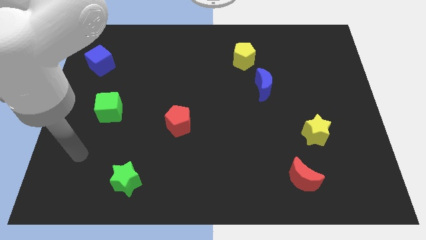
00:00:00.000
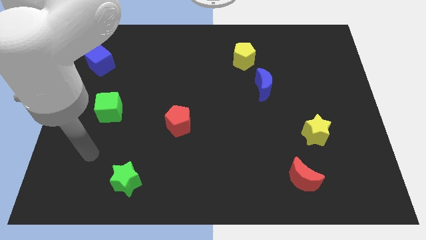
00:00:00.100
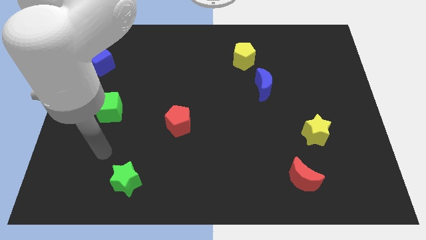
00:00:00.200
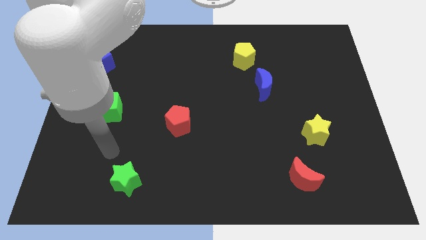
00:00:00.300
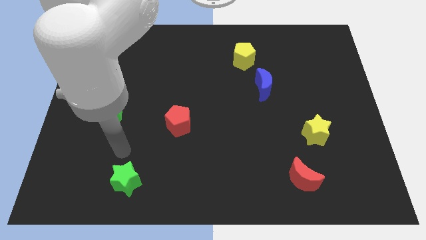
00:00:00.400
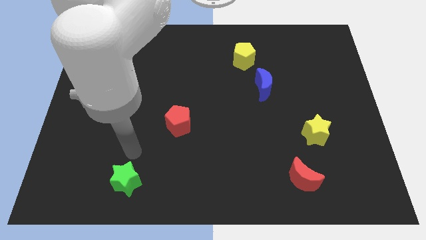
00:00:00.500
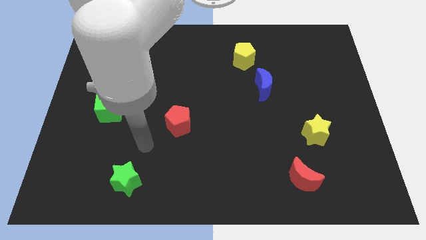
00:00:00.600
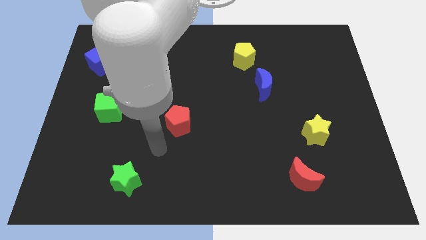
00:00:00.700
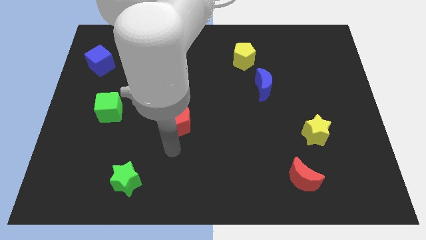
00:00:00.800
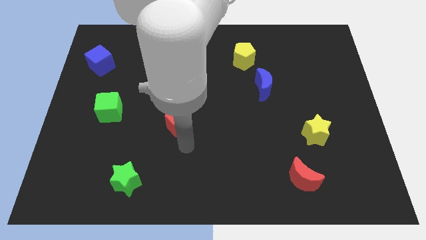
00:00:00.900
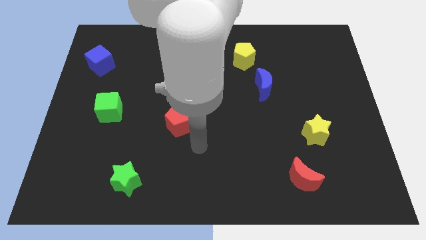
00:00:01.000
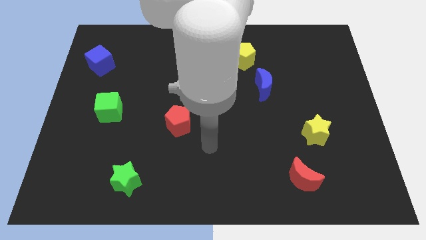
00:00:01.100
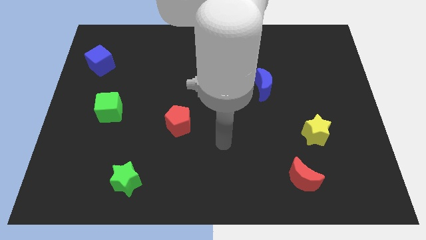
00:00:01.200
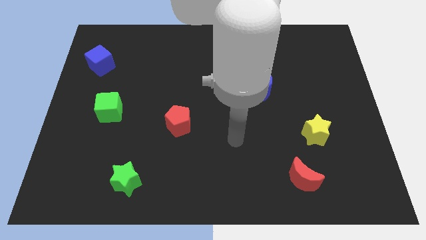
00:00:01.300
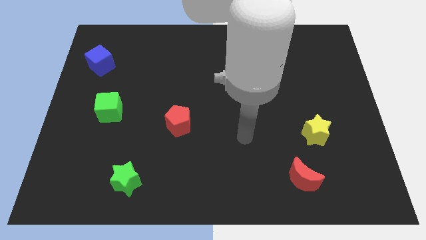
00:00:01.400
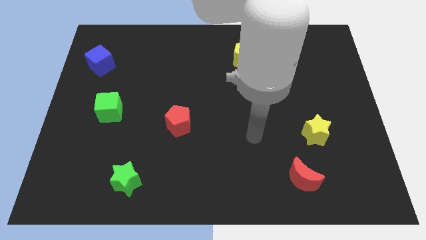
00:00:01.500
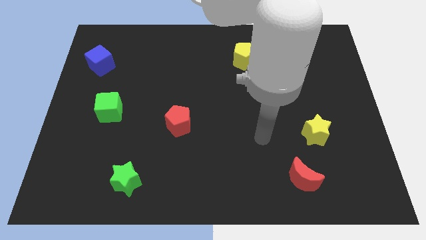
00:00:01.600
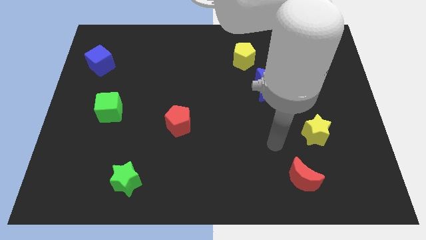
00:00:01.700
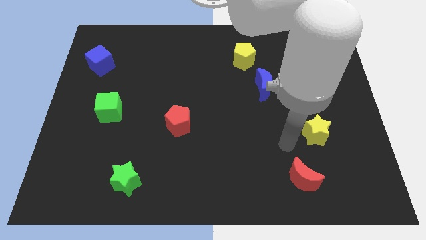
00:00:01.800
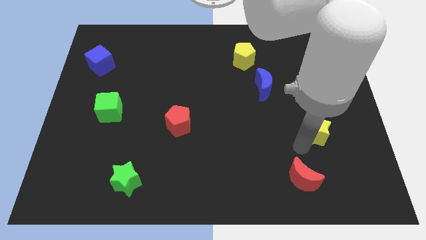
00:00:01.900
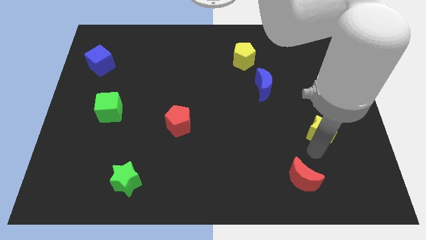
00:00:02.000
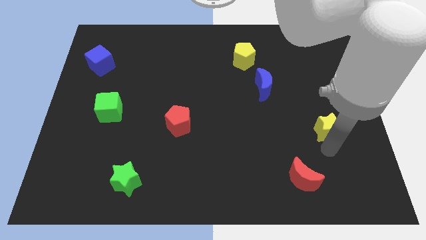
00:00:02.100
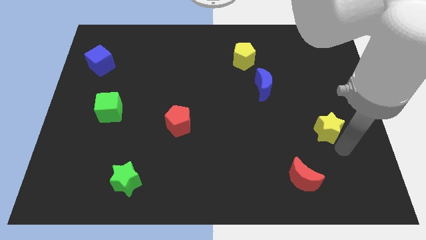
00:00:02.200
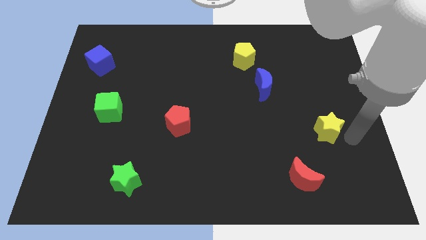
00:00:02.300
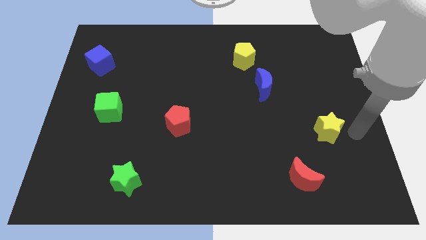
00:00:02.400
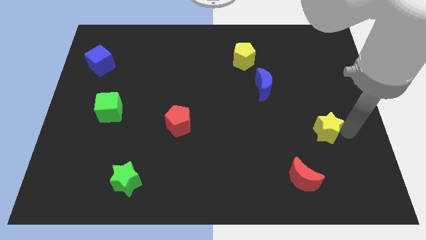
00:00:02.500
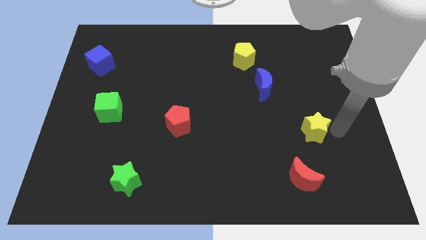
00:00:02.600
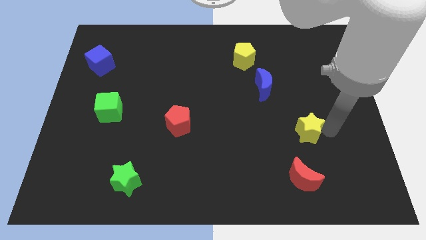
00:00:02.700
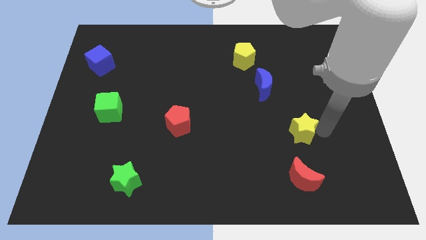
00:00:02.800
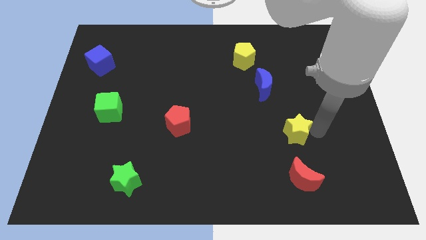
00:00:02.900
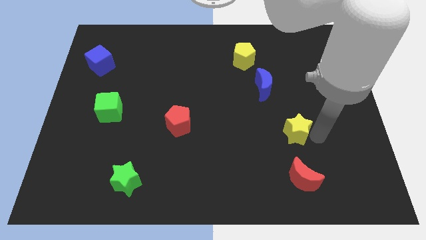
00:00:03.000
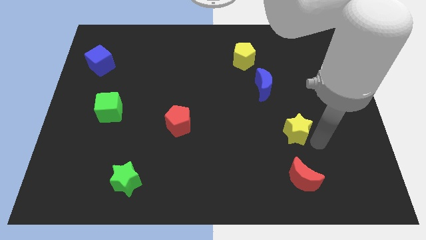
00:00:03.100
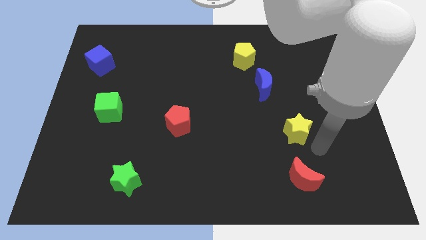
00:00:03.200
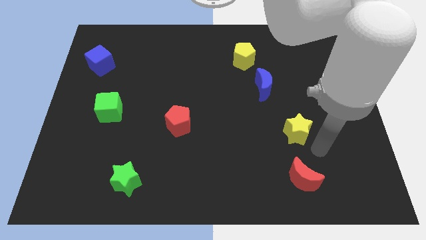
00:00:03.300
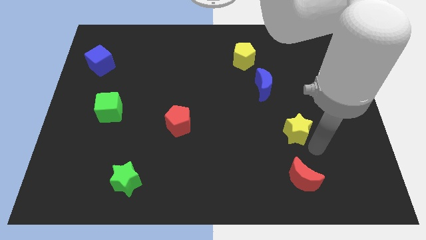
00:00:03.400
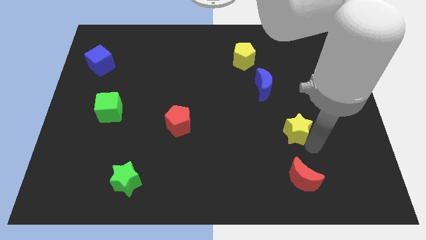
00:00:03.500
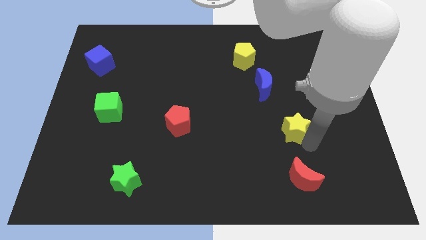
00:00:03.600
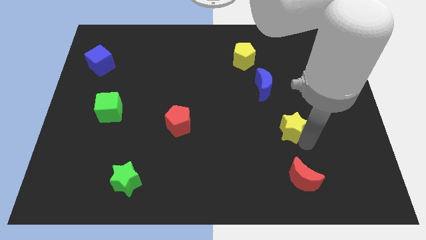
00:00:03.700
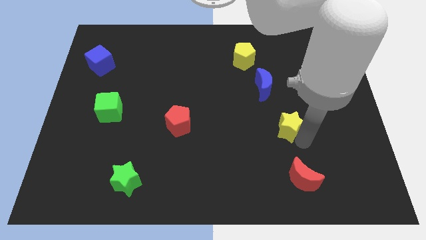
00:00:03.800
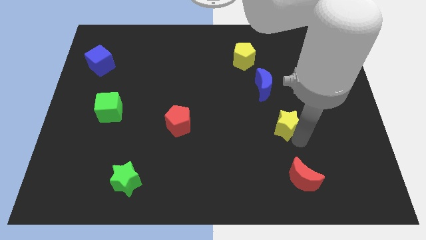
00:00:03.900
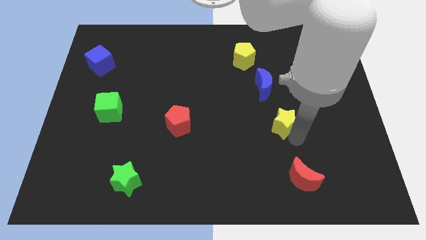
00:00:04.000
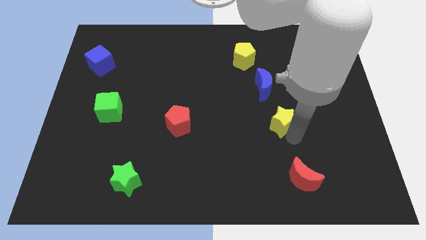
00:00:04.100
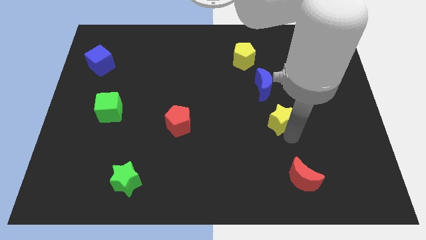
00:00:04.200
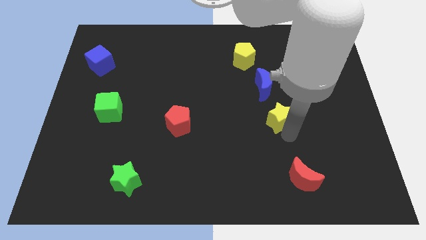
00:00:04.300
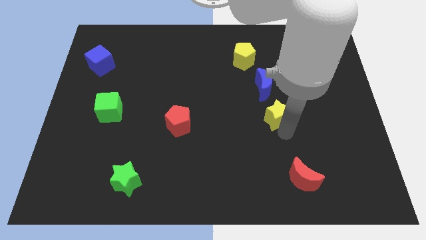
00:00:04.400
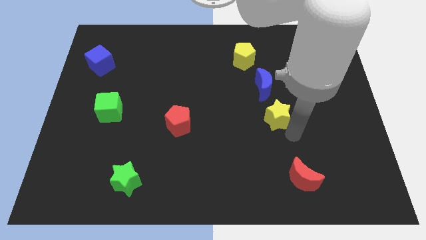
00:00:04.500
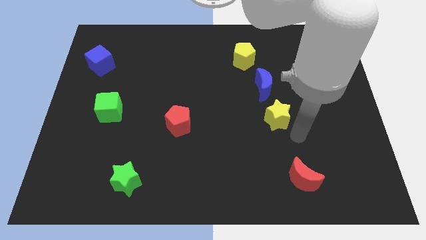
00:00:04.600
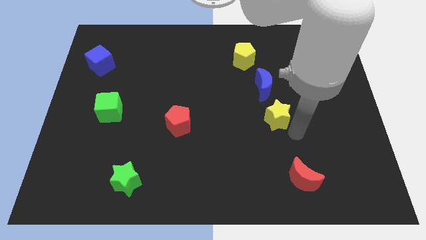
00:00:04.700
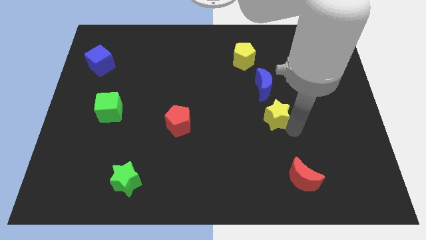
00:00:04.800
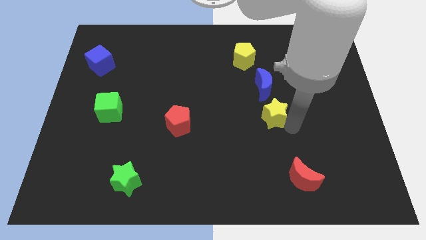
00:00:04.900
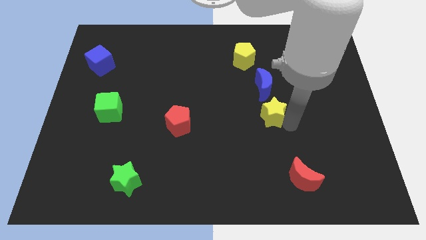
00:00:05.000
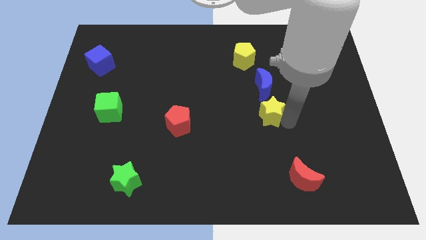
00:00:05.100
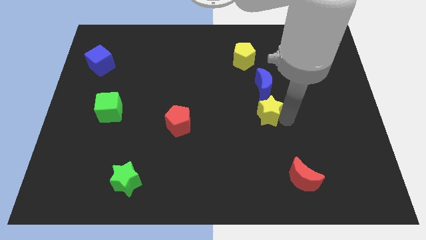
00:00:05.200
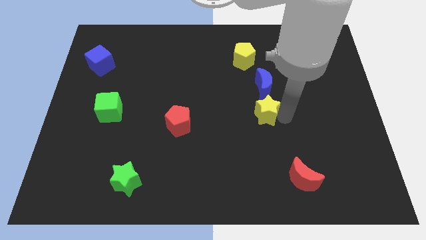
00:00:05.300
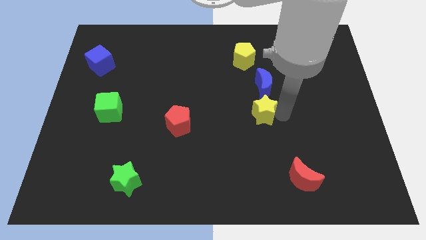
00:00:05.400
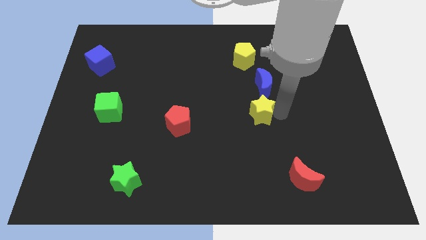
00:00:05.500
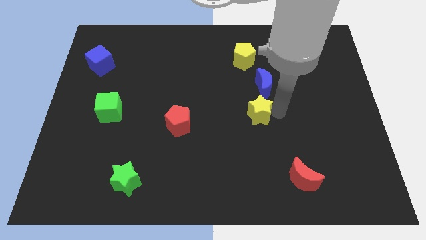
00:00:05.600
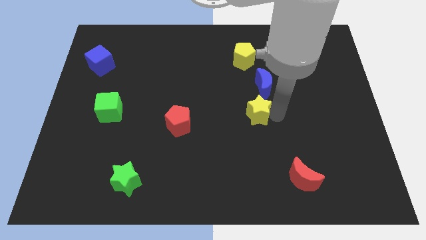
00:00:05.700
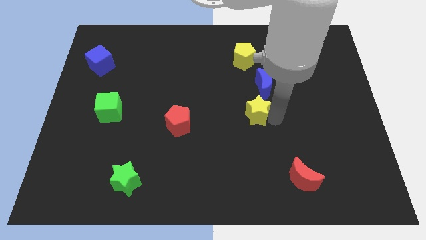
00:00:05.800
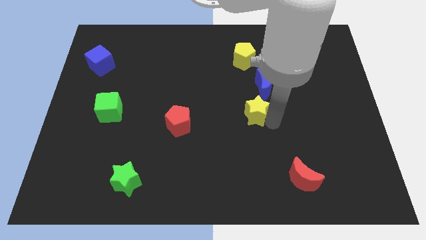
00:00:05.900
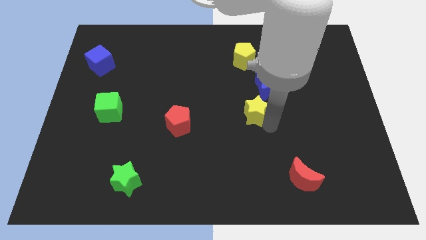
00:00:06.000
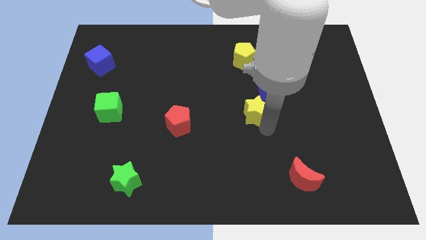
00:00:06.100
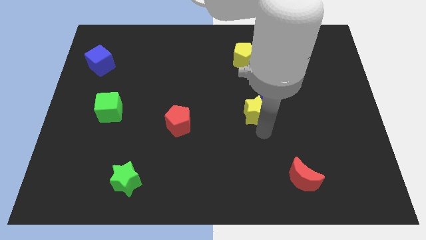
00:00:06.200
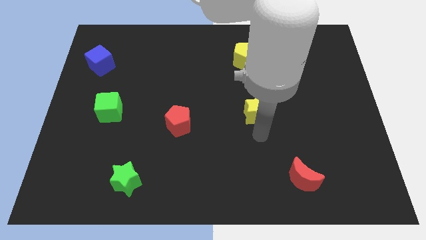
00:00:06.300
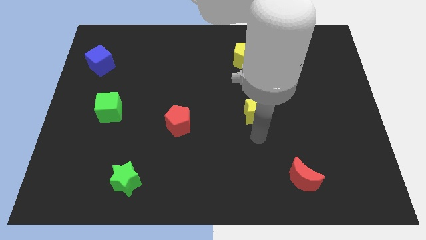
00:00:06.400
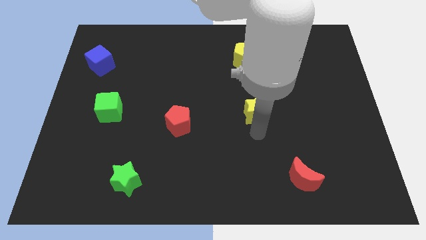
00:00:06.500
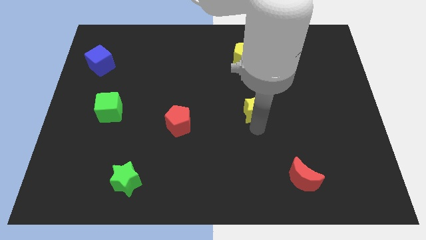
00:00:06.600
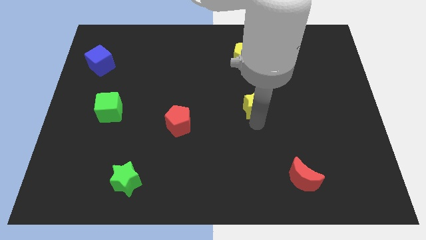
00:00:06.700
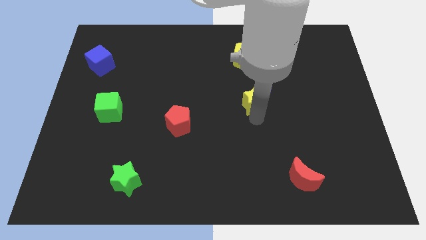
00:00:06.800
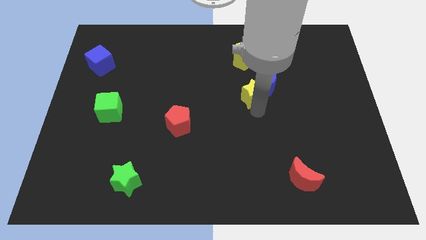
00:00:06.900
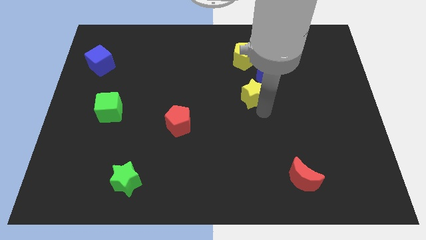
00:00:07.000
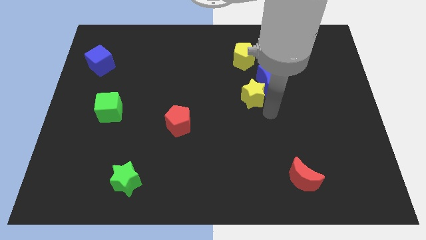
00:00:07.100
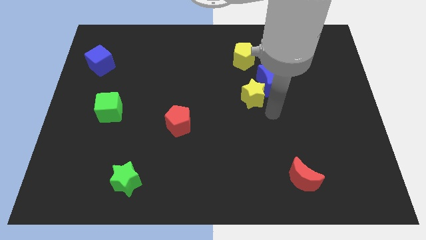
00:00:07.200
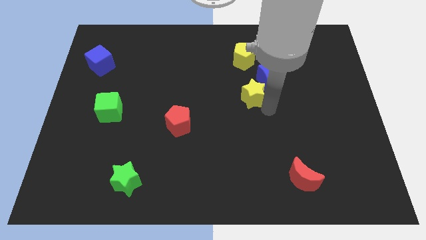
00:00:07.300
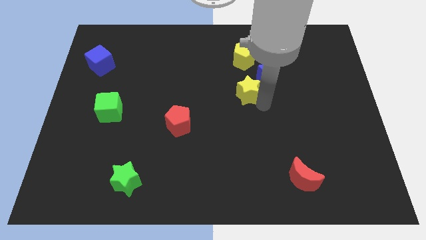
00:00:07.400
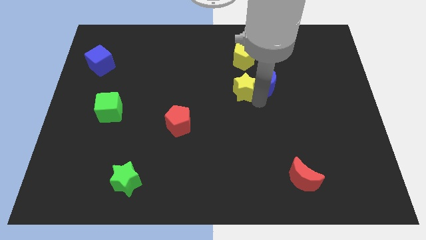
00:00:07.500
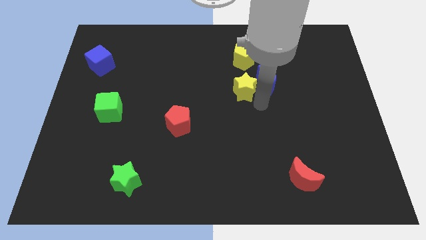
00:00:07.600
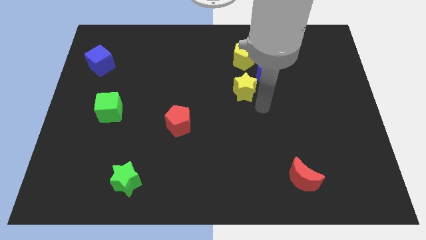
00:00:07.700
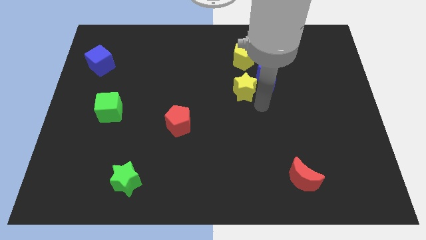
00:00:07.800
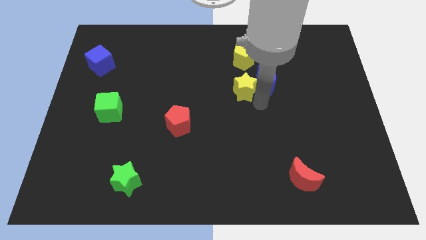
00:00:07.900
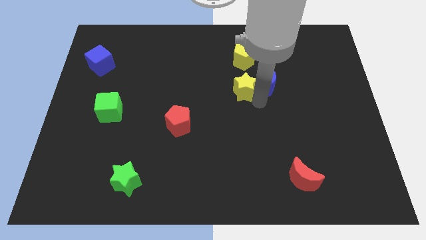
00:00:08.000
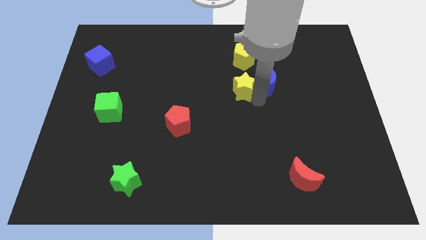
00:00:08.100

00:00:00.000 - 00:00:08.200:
move the yellow star upwards and then to the left
